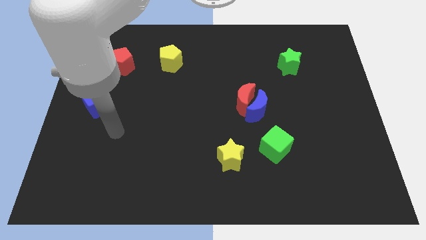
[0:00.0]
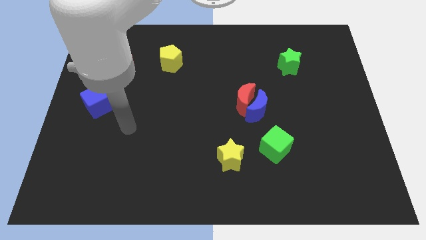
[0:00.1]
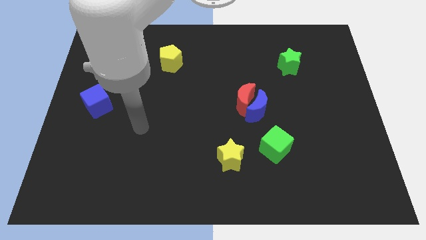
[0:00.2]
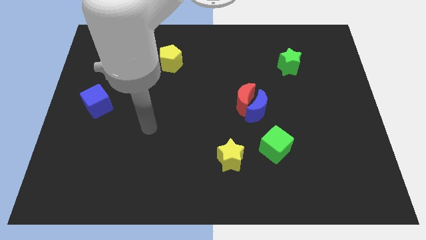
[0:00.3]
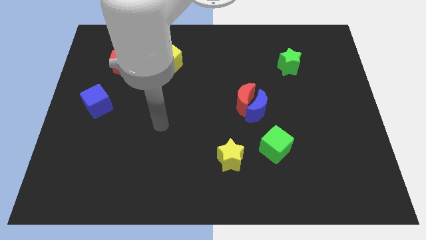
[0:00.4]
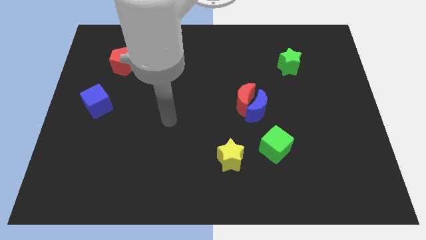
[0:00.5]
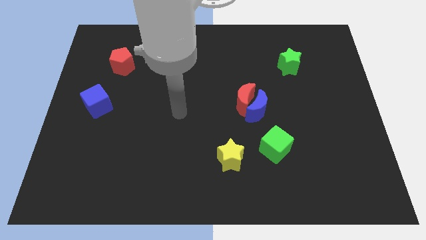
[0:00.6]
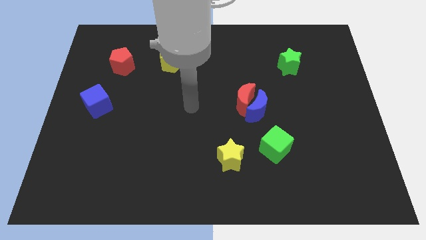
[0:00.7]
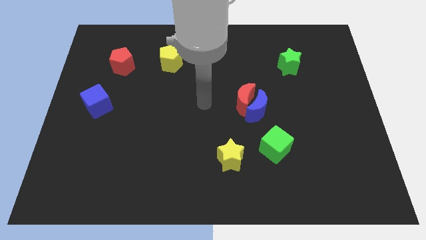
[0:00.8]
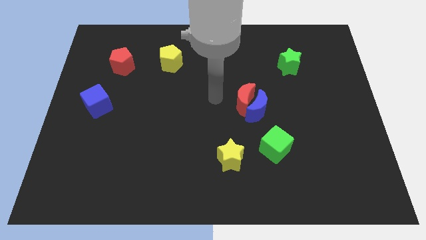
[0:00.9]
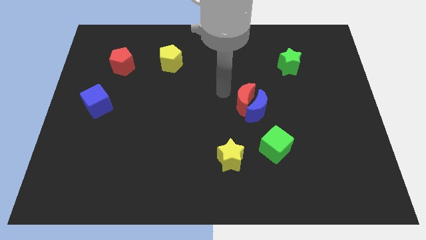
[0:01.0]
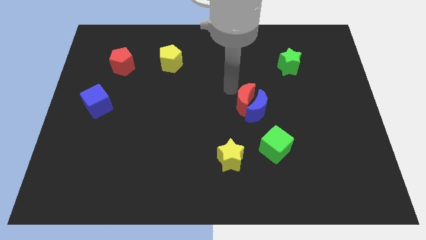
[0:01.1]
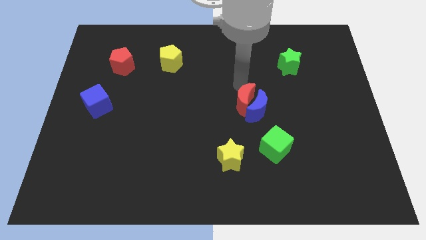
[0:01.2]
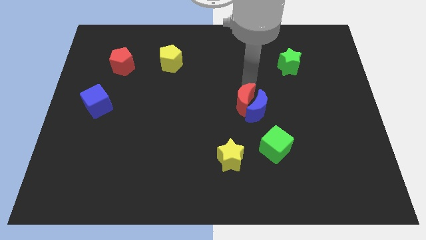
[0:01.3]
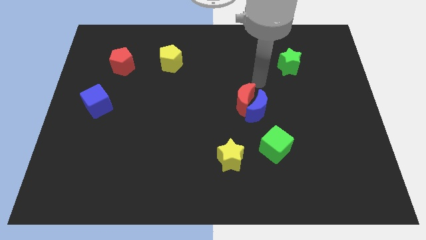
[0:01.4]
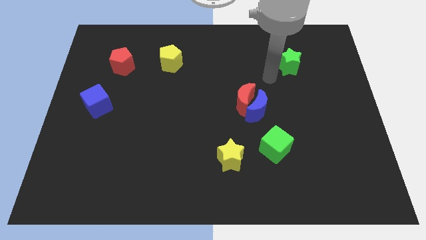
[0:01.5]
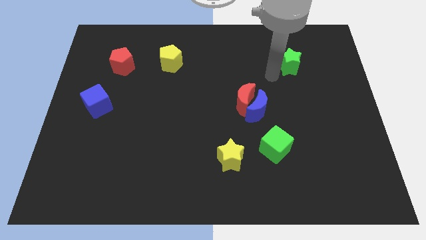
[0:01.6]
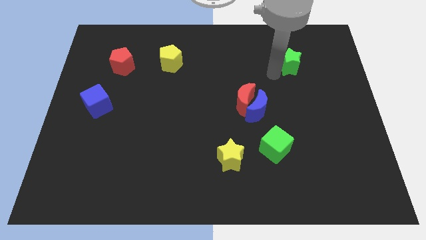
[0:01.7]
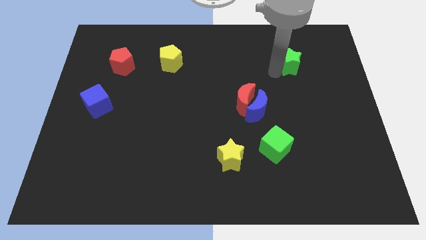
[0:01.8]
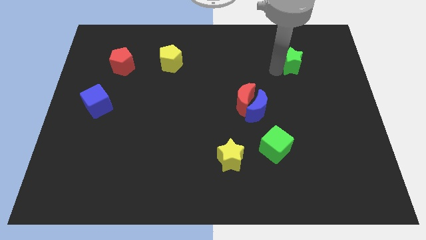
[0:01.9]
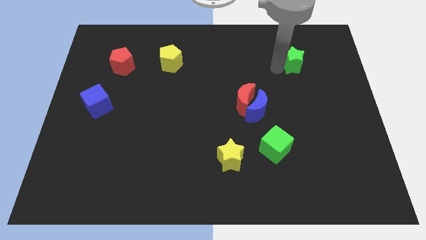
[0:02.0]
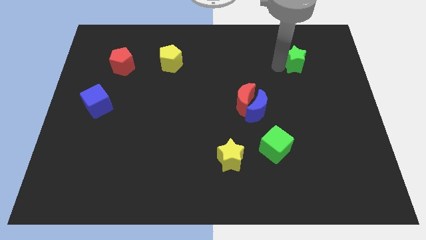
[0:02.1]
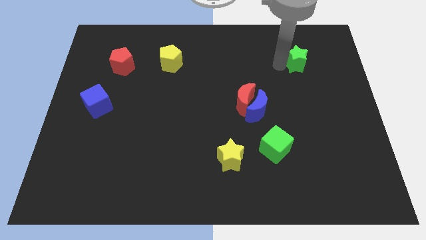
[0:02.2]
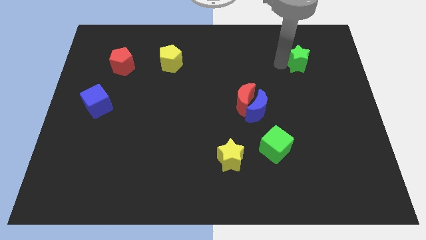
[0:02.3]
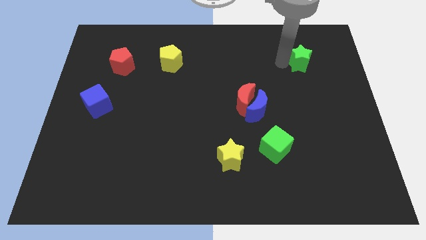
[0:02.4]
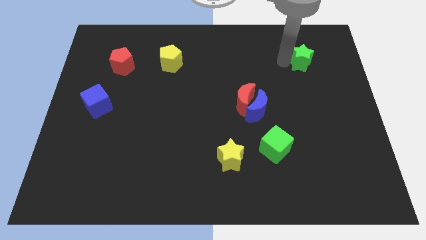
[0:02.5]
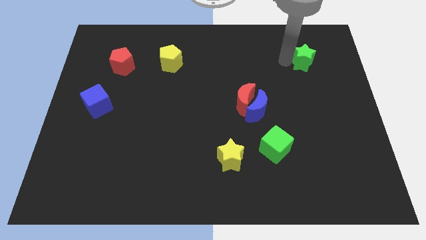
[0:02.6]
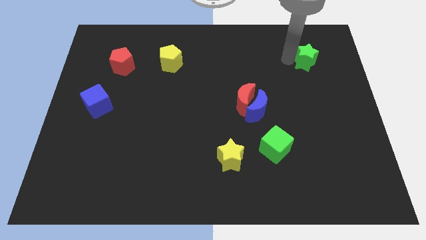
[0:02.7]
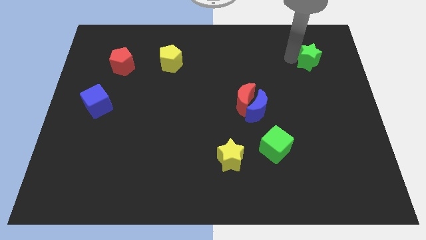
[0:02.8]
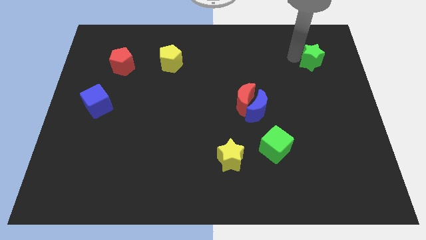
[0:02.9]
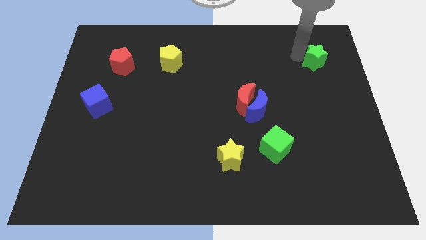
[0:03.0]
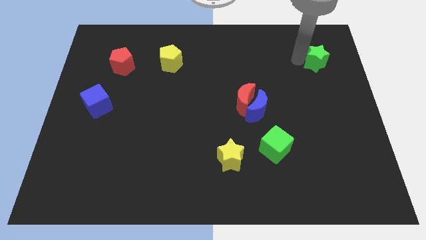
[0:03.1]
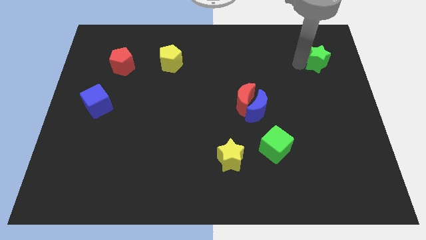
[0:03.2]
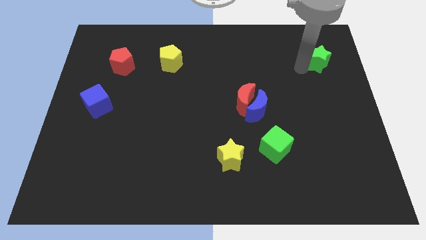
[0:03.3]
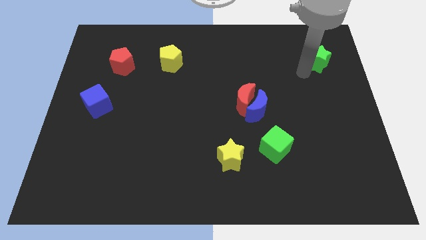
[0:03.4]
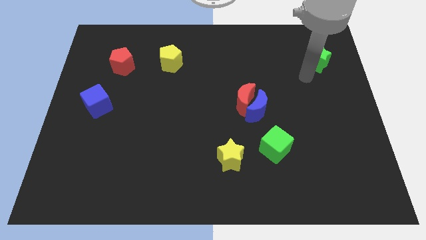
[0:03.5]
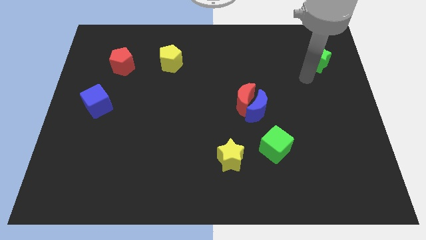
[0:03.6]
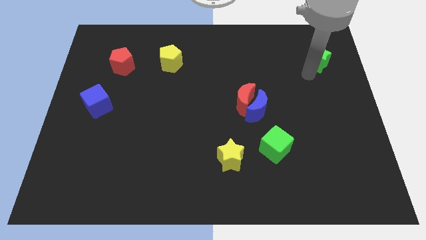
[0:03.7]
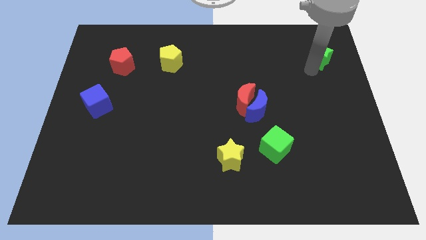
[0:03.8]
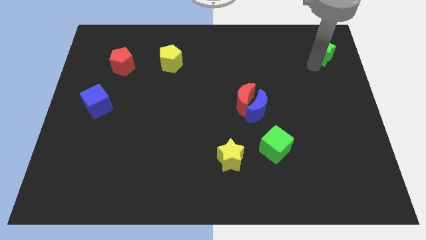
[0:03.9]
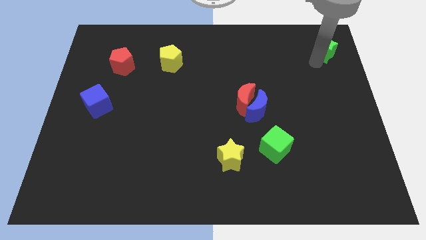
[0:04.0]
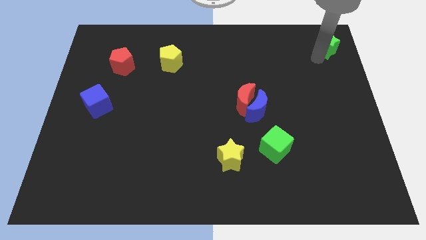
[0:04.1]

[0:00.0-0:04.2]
move the green star to the top right

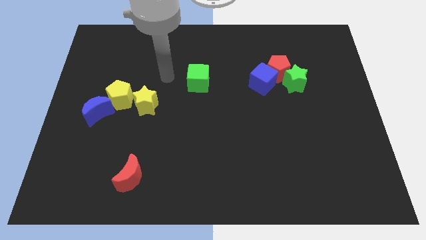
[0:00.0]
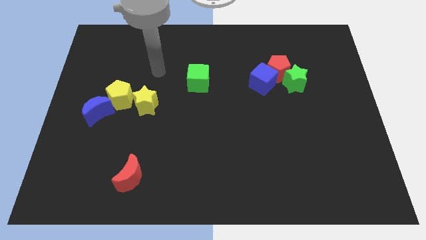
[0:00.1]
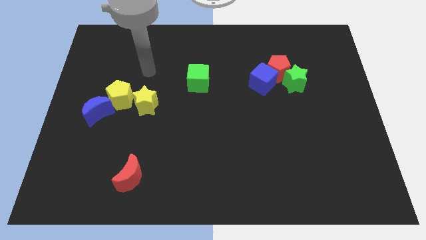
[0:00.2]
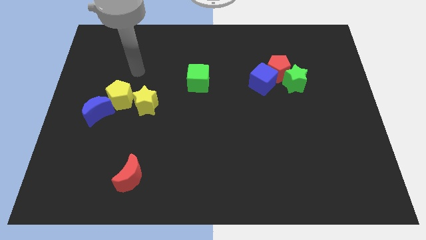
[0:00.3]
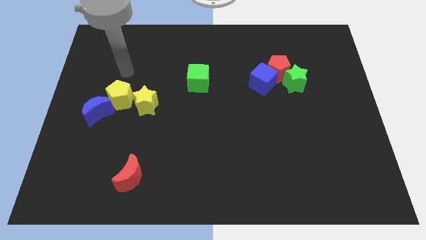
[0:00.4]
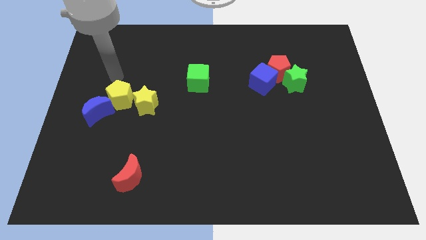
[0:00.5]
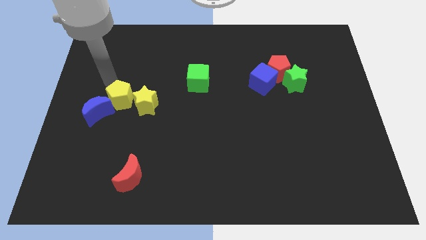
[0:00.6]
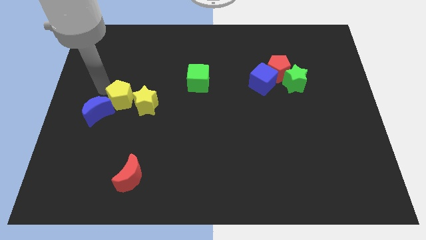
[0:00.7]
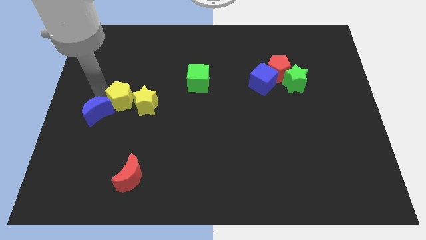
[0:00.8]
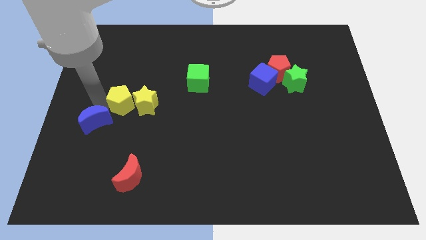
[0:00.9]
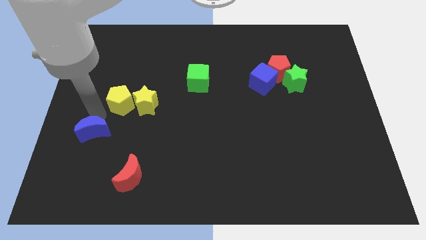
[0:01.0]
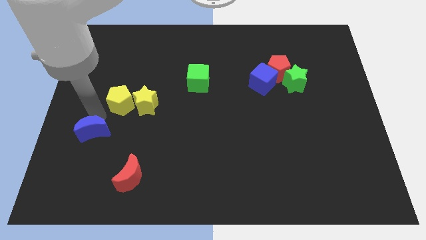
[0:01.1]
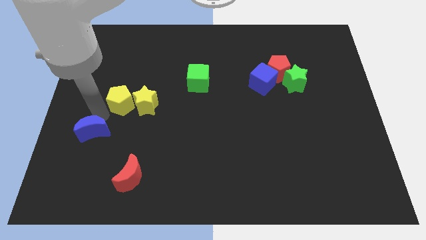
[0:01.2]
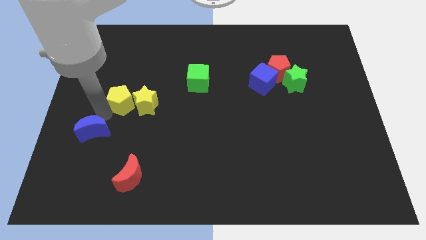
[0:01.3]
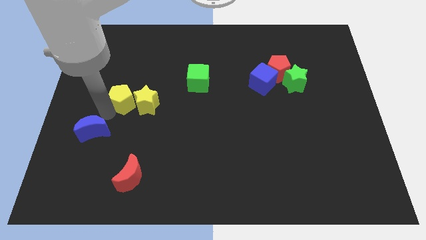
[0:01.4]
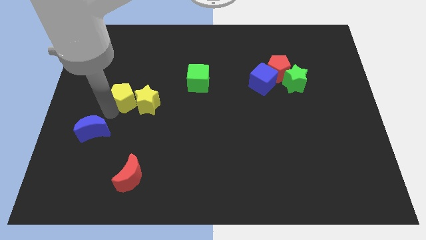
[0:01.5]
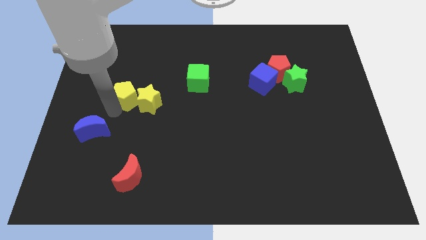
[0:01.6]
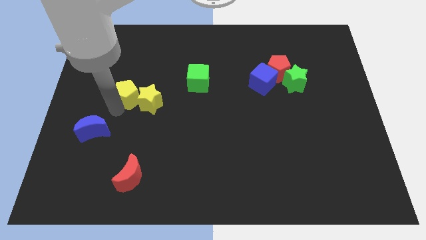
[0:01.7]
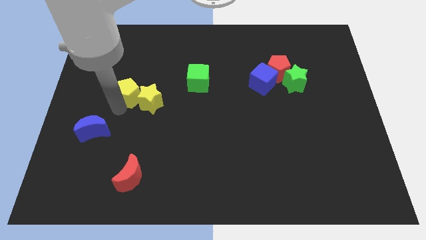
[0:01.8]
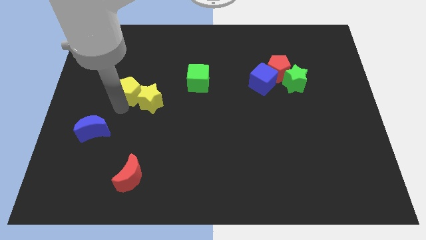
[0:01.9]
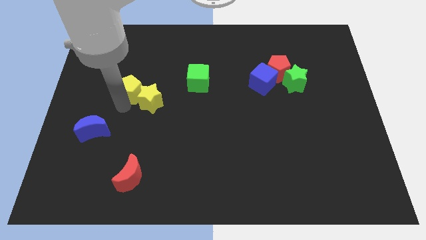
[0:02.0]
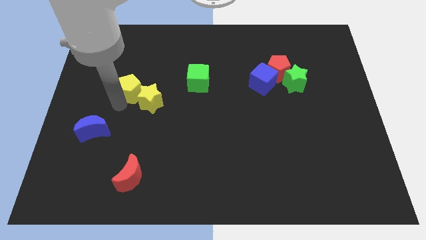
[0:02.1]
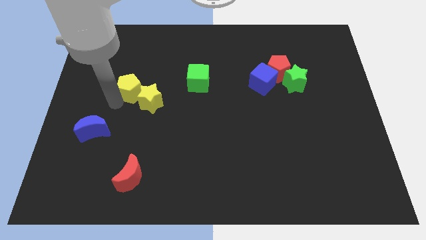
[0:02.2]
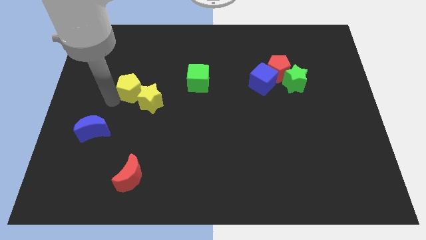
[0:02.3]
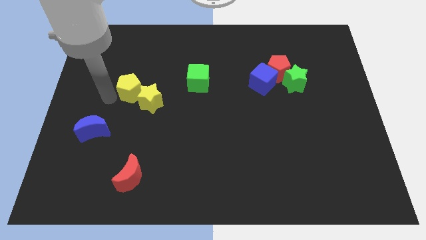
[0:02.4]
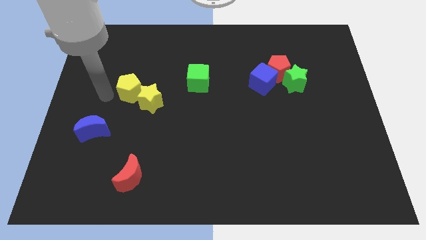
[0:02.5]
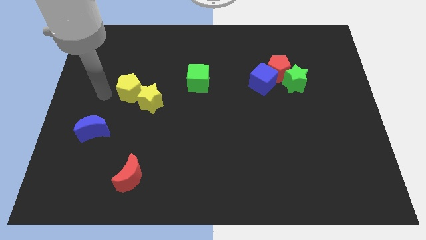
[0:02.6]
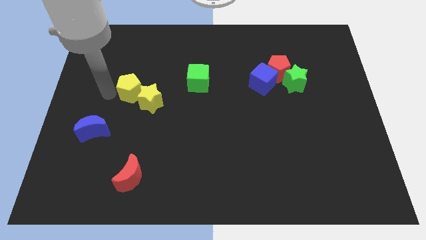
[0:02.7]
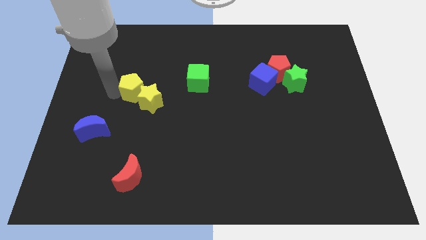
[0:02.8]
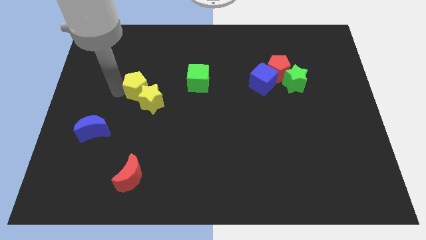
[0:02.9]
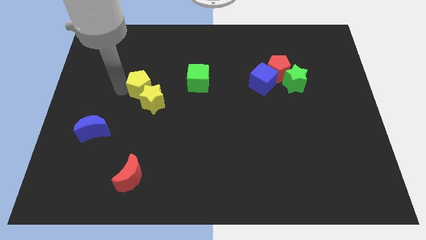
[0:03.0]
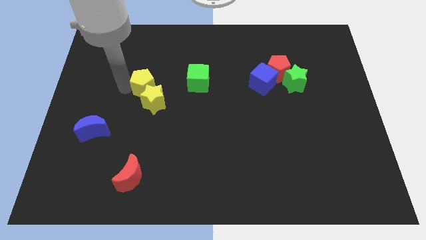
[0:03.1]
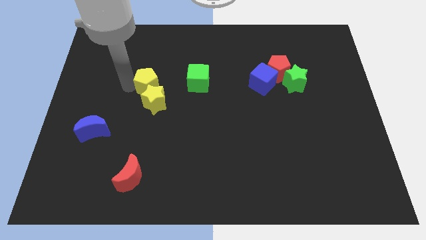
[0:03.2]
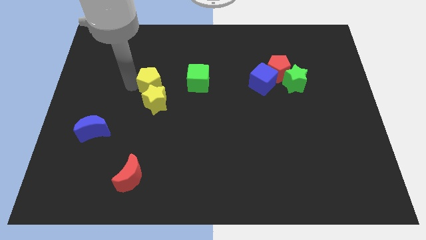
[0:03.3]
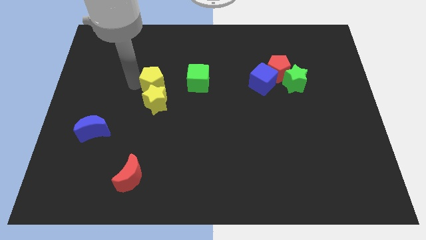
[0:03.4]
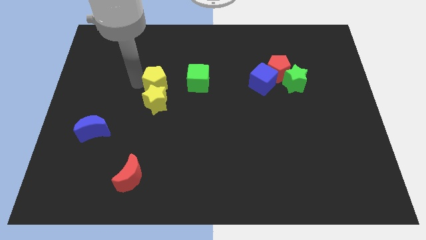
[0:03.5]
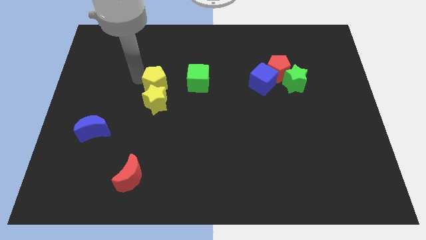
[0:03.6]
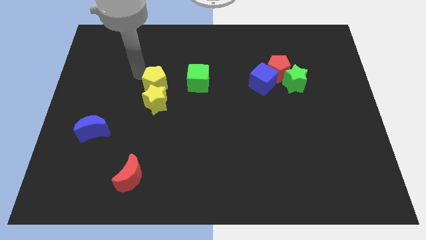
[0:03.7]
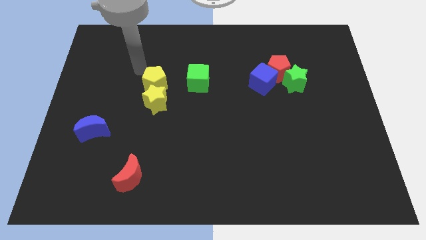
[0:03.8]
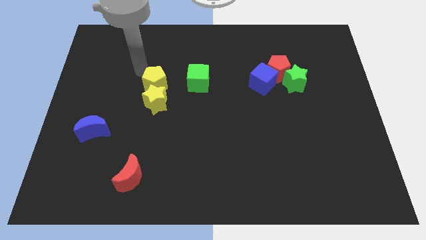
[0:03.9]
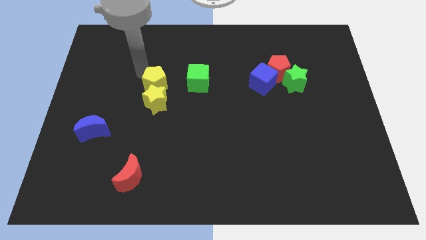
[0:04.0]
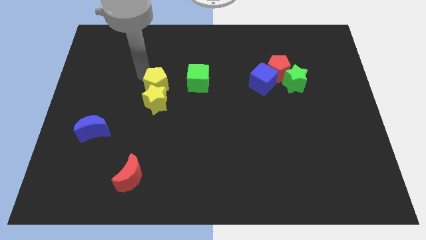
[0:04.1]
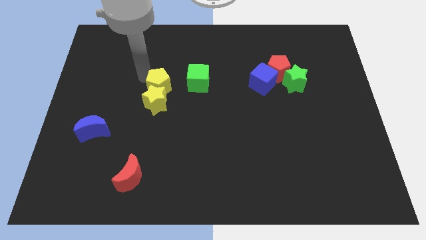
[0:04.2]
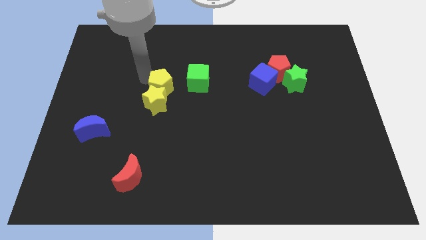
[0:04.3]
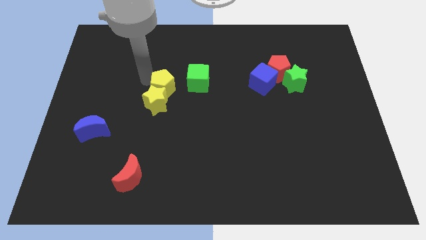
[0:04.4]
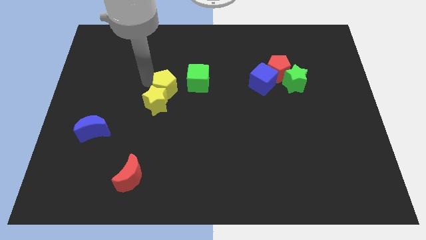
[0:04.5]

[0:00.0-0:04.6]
slide the yellow pentagon to the center of the board
